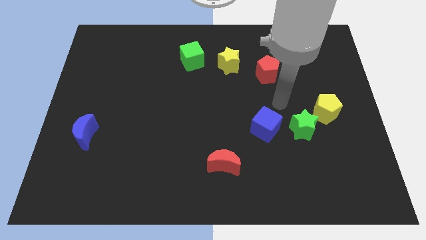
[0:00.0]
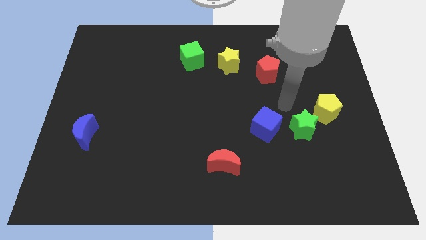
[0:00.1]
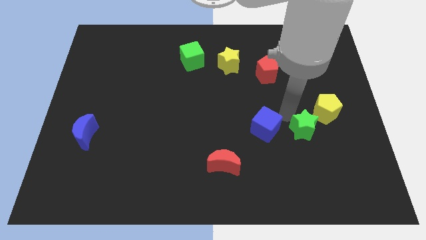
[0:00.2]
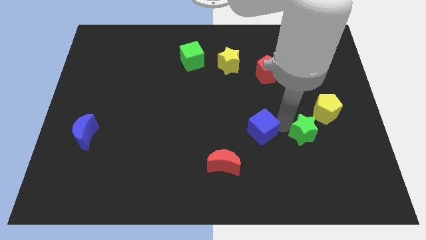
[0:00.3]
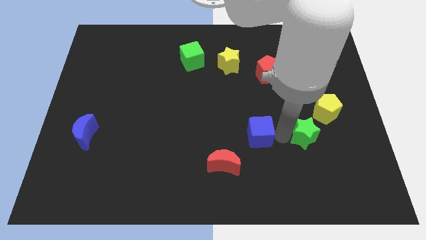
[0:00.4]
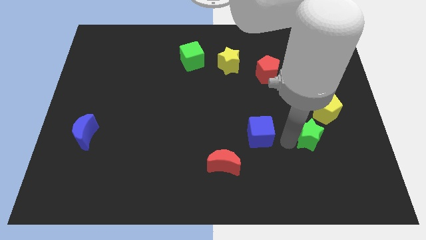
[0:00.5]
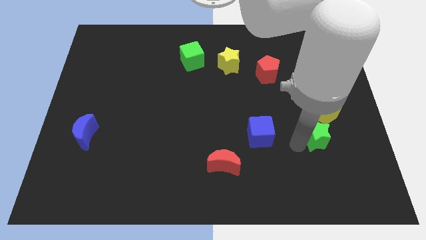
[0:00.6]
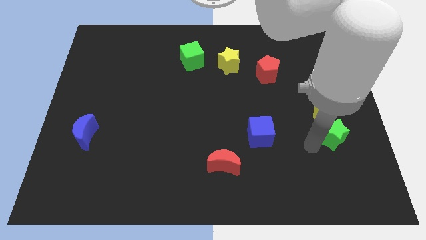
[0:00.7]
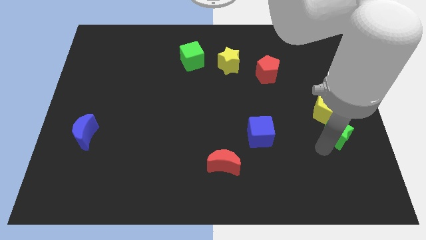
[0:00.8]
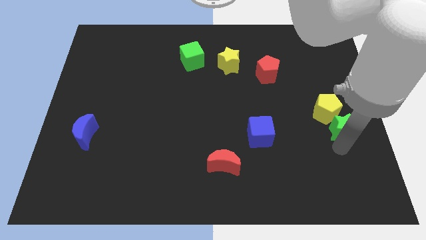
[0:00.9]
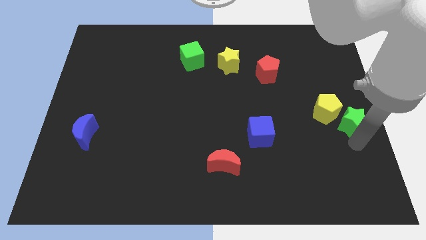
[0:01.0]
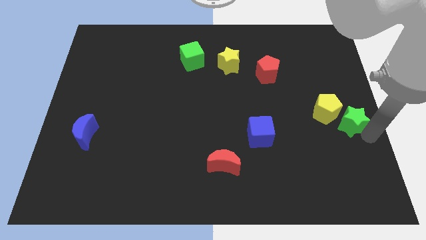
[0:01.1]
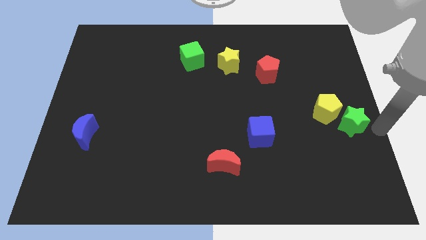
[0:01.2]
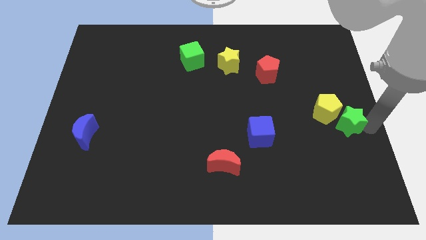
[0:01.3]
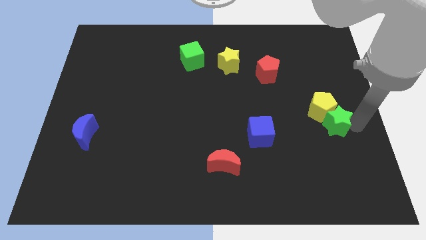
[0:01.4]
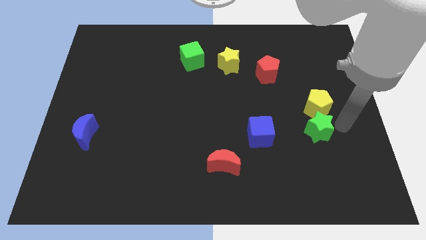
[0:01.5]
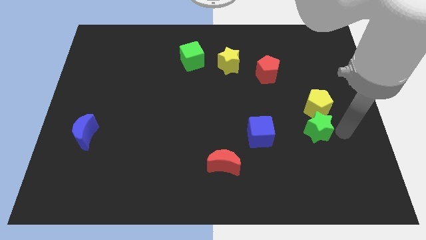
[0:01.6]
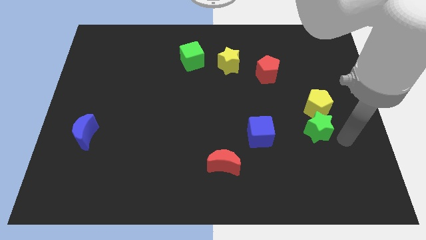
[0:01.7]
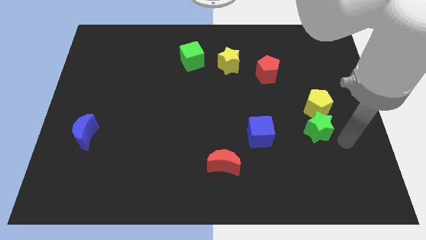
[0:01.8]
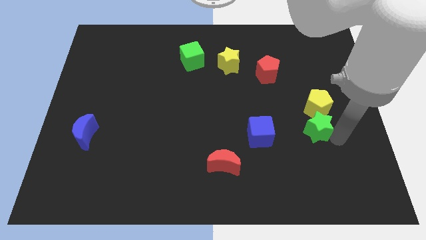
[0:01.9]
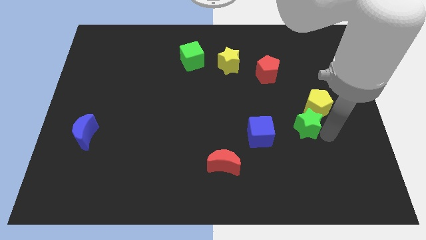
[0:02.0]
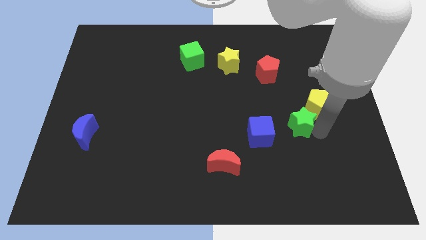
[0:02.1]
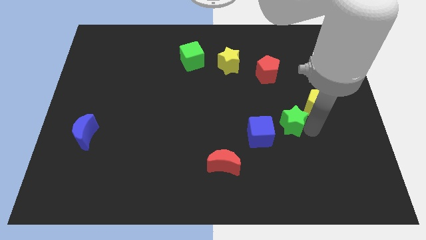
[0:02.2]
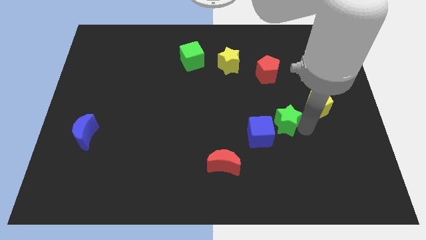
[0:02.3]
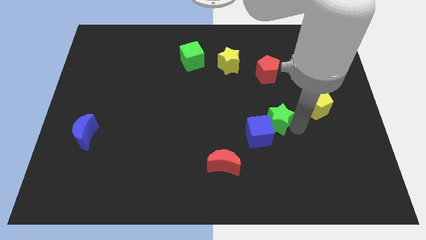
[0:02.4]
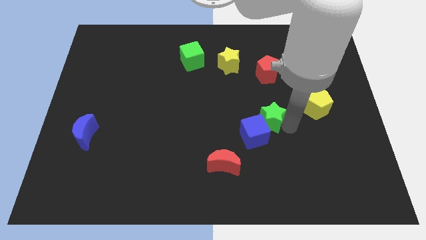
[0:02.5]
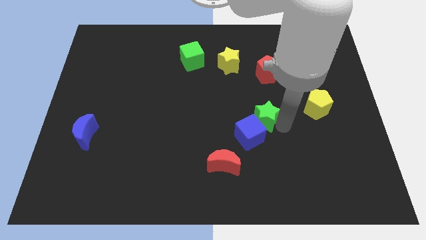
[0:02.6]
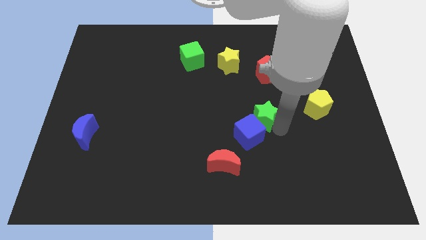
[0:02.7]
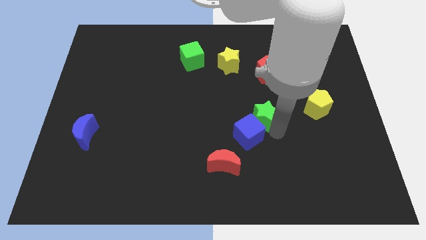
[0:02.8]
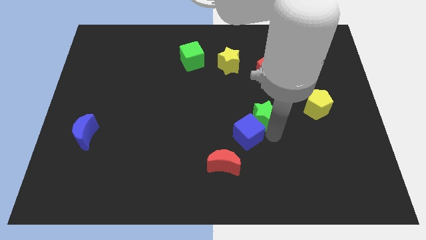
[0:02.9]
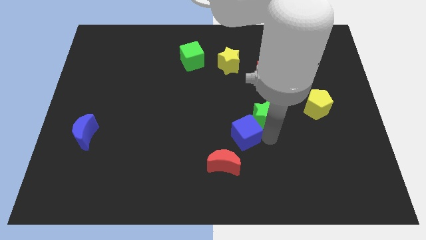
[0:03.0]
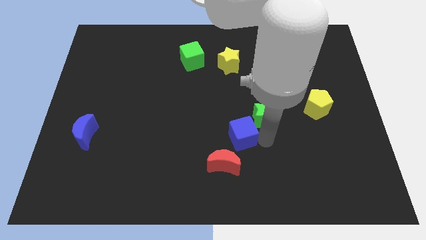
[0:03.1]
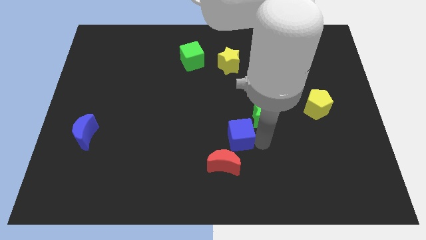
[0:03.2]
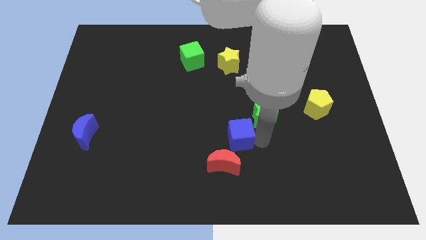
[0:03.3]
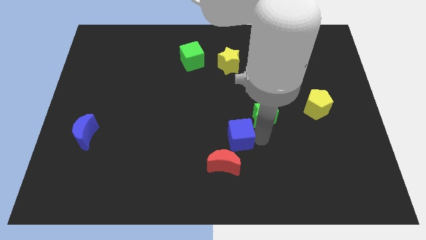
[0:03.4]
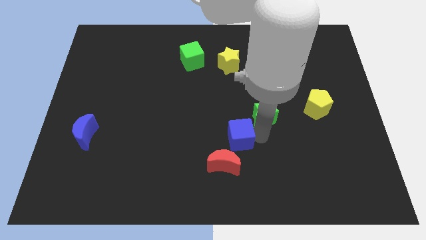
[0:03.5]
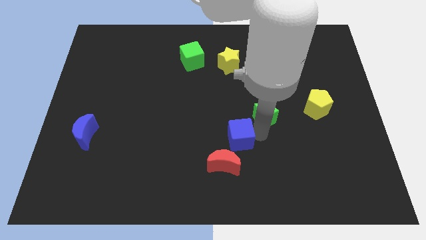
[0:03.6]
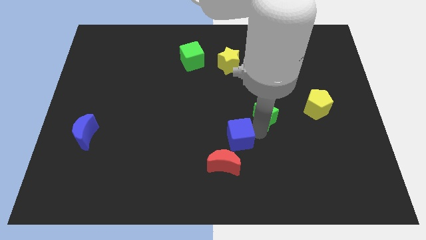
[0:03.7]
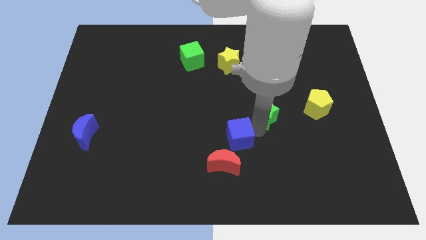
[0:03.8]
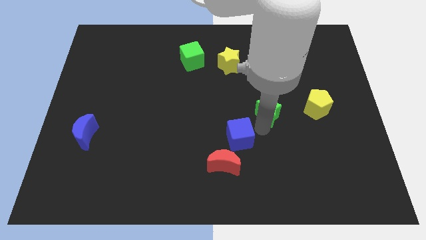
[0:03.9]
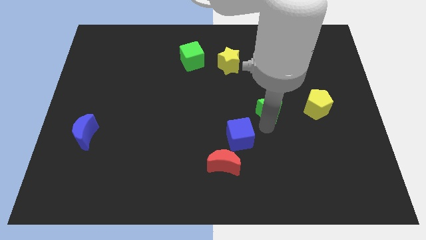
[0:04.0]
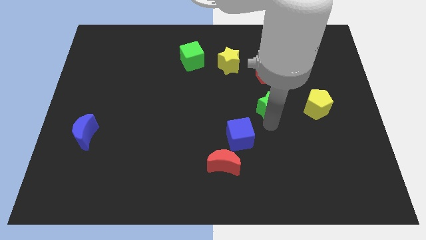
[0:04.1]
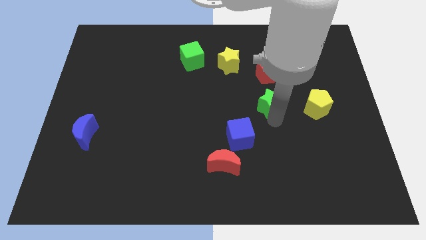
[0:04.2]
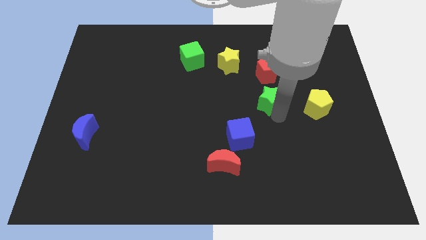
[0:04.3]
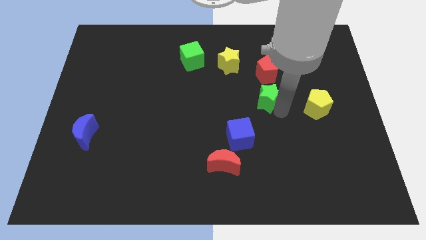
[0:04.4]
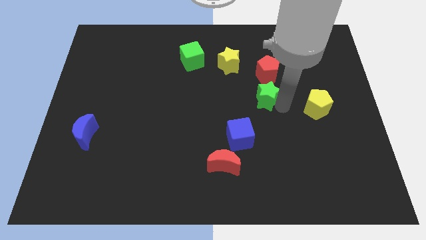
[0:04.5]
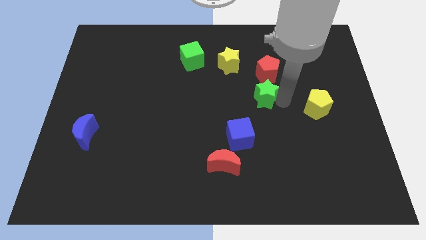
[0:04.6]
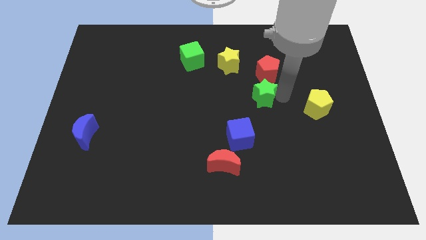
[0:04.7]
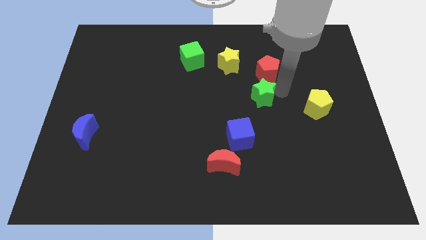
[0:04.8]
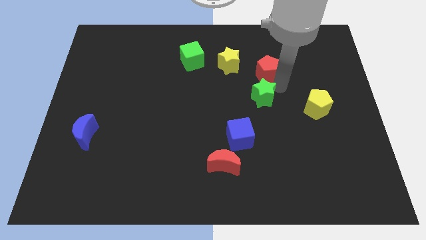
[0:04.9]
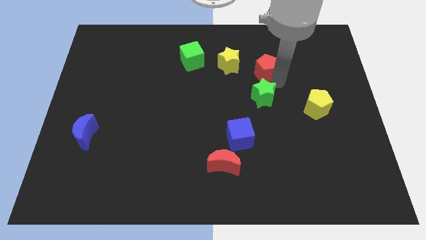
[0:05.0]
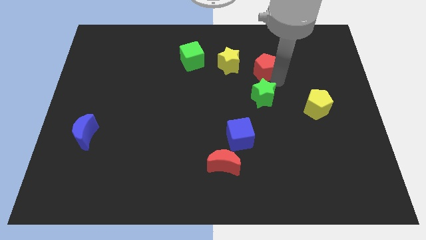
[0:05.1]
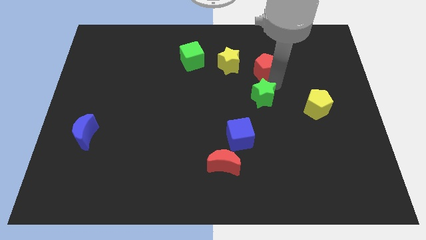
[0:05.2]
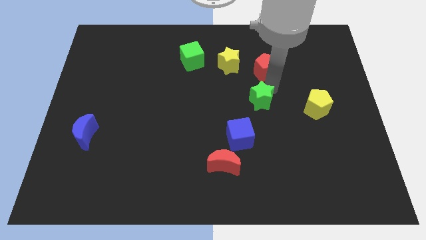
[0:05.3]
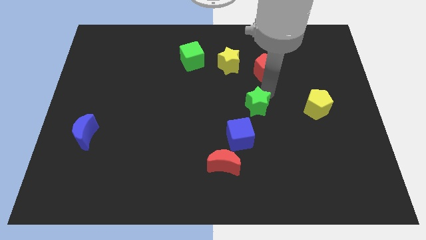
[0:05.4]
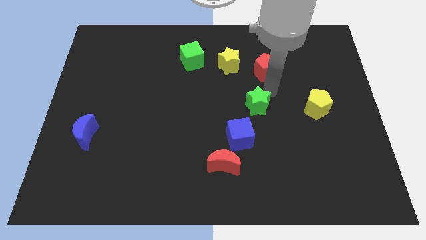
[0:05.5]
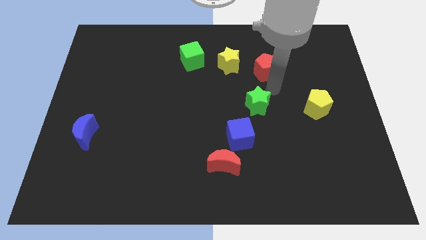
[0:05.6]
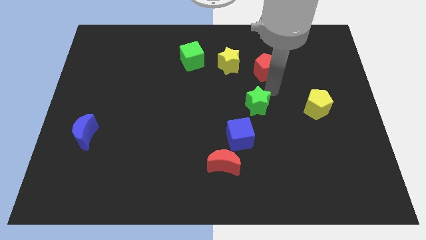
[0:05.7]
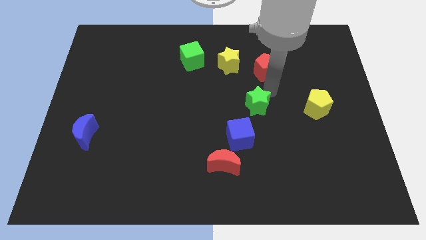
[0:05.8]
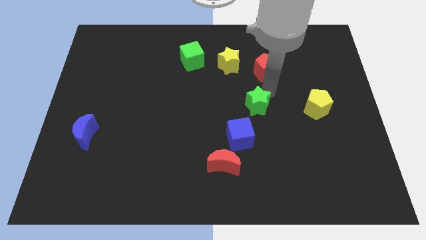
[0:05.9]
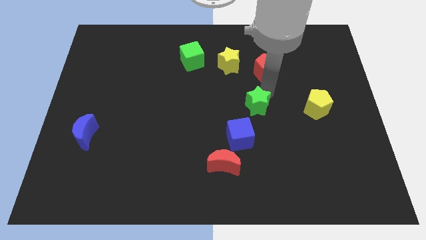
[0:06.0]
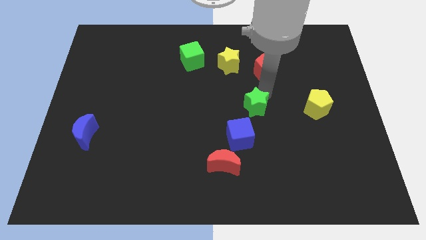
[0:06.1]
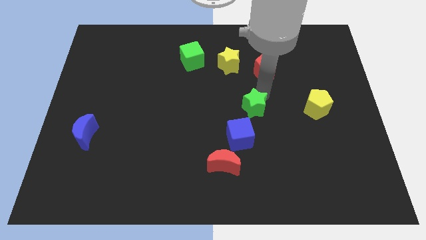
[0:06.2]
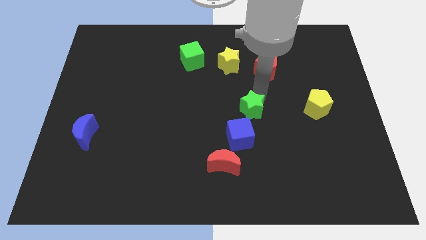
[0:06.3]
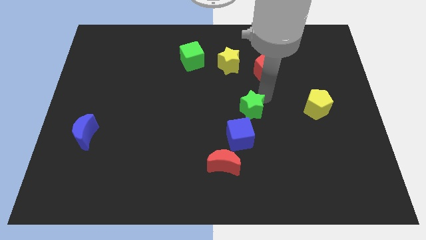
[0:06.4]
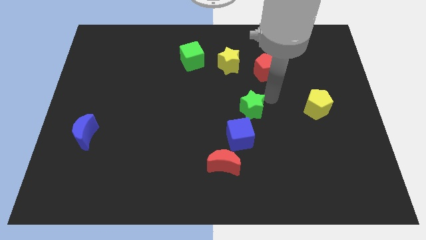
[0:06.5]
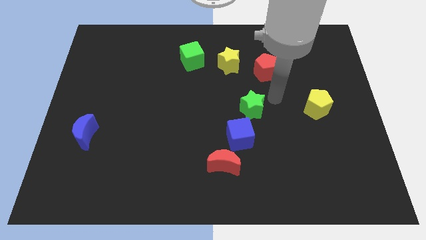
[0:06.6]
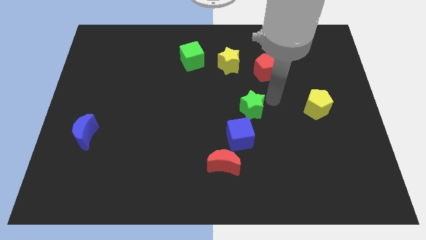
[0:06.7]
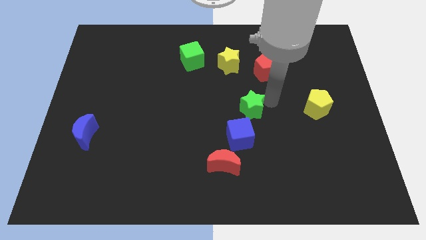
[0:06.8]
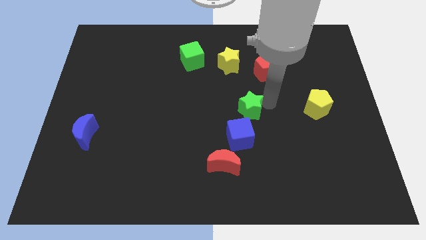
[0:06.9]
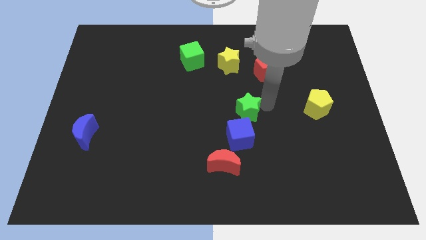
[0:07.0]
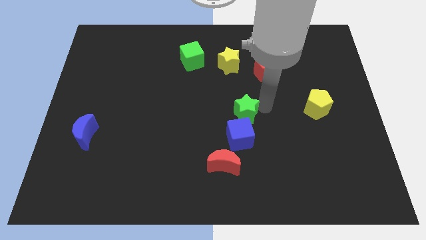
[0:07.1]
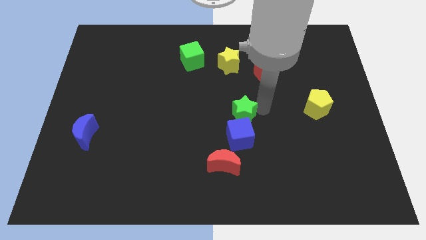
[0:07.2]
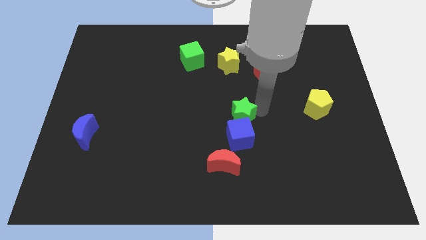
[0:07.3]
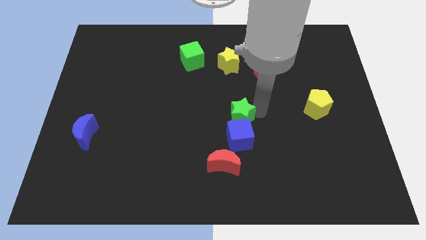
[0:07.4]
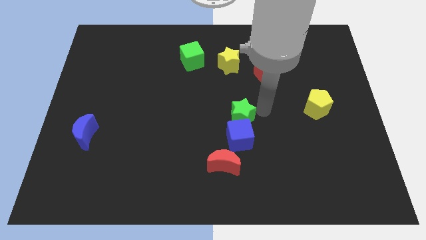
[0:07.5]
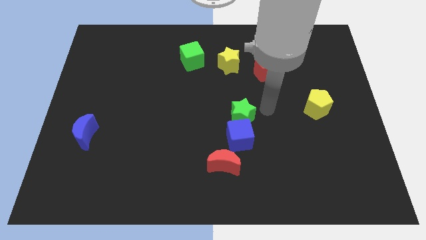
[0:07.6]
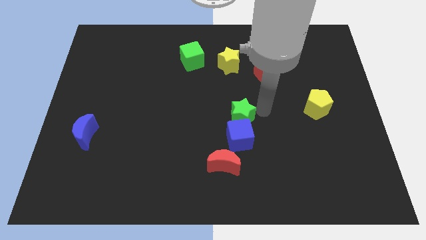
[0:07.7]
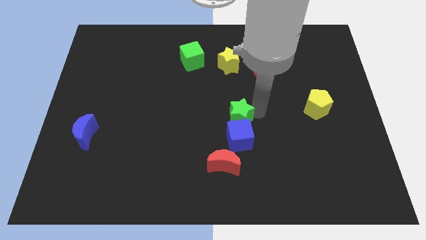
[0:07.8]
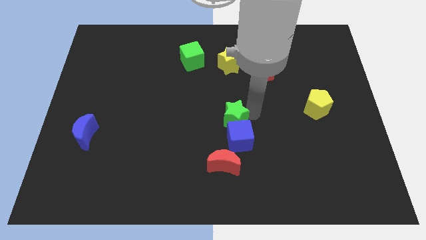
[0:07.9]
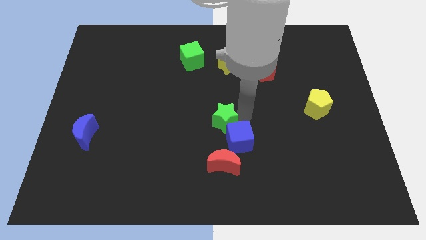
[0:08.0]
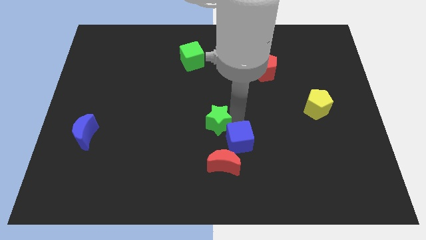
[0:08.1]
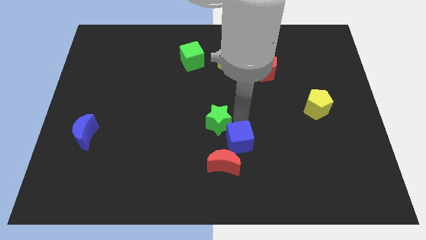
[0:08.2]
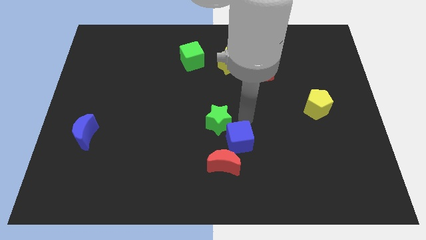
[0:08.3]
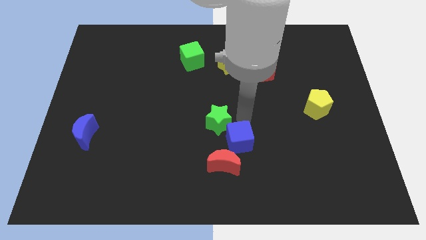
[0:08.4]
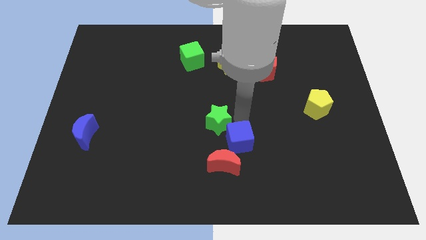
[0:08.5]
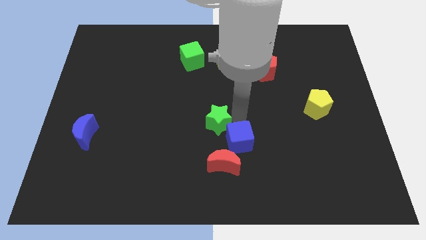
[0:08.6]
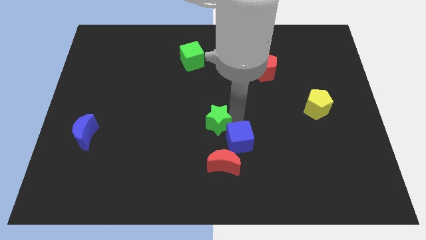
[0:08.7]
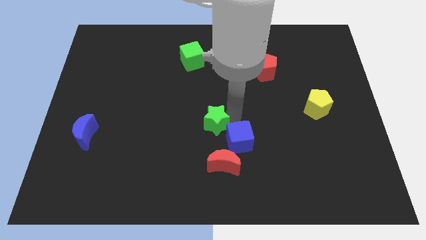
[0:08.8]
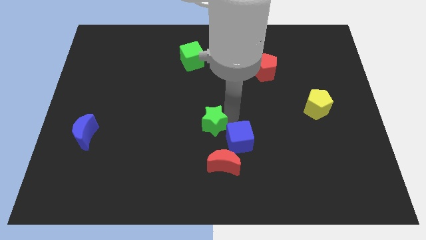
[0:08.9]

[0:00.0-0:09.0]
slide the green star to the left
